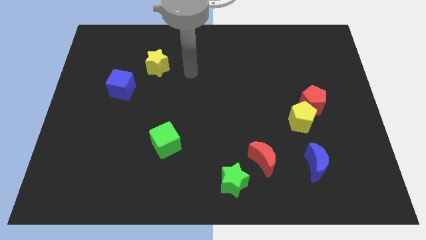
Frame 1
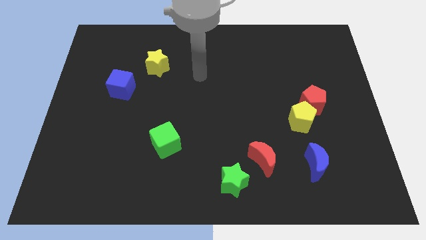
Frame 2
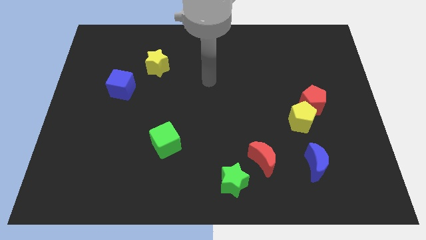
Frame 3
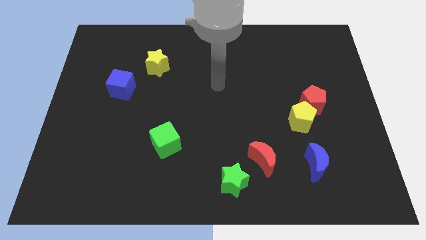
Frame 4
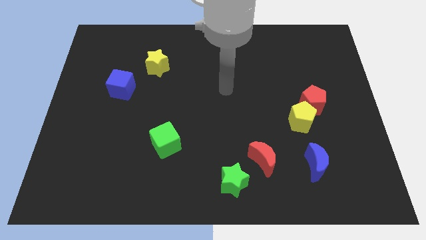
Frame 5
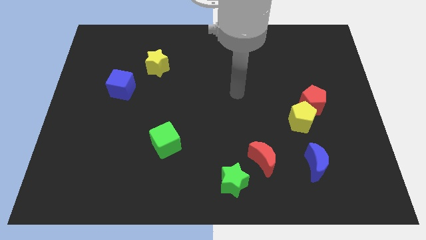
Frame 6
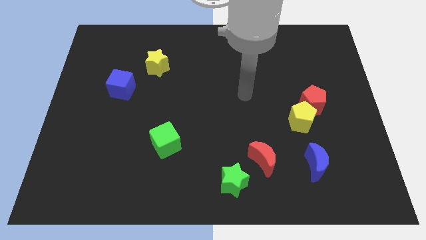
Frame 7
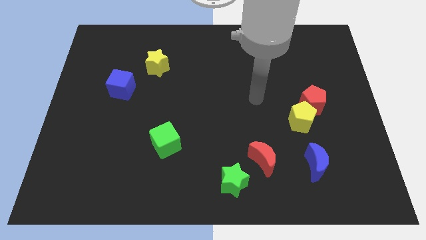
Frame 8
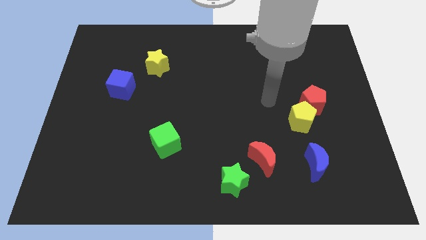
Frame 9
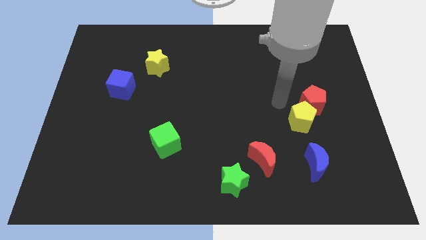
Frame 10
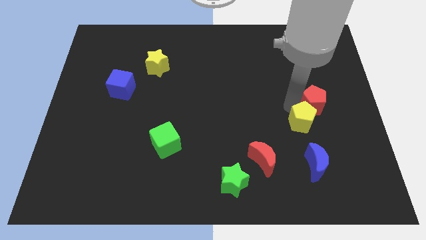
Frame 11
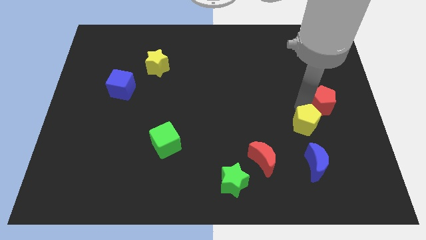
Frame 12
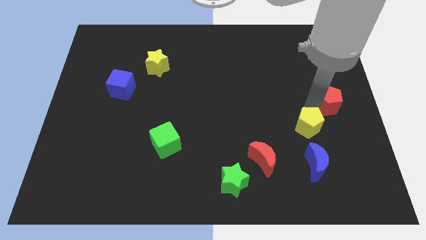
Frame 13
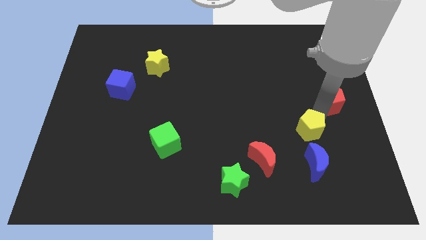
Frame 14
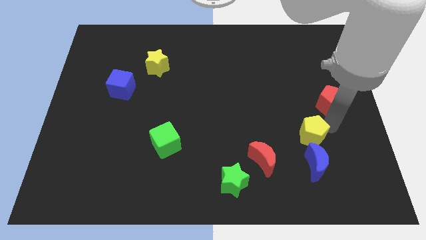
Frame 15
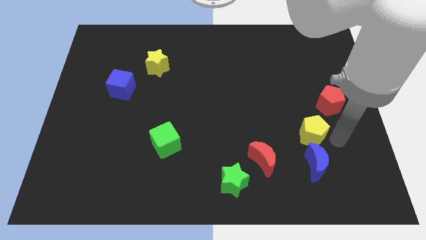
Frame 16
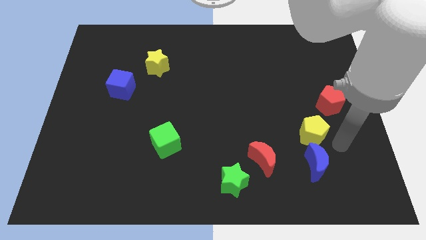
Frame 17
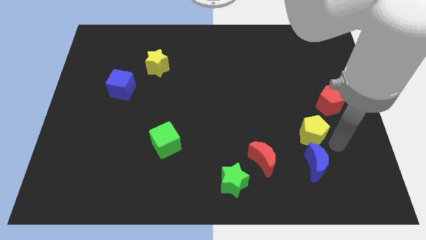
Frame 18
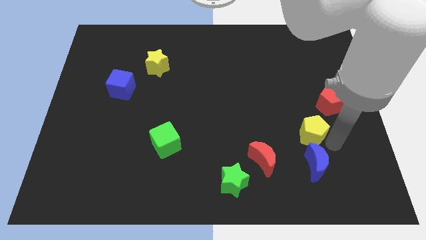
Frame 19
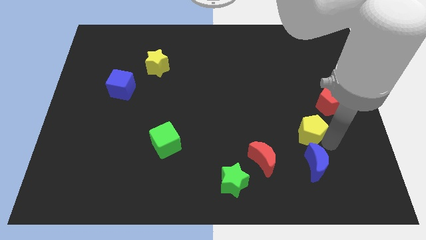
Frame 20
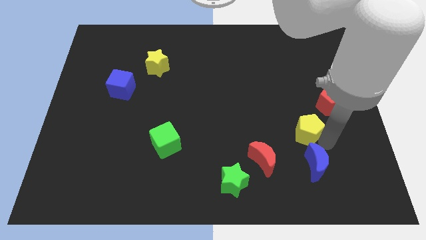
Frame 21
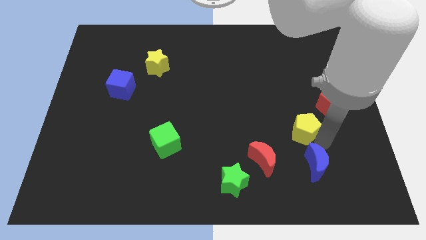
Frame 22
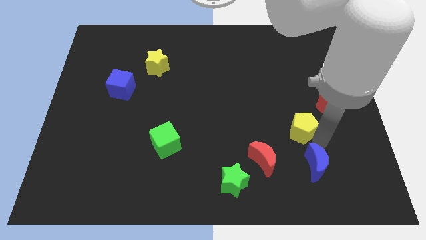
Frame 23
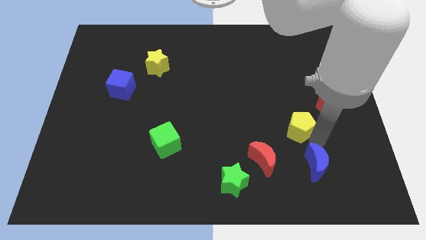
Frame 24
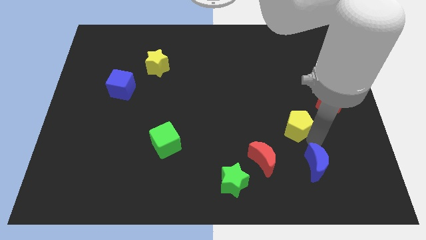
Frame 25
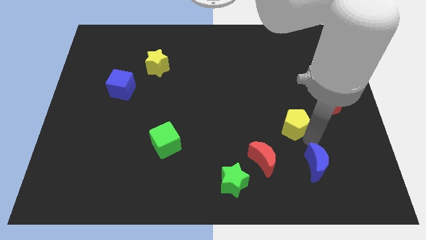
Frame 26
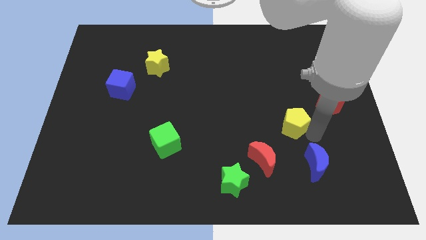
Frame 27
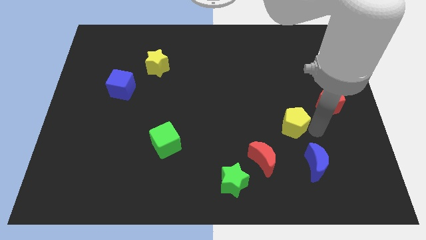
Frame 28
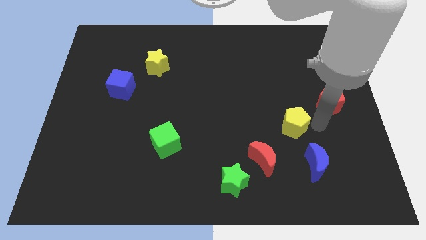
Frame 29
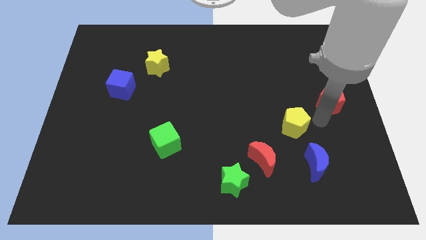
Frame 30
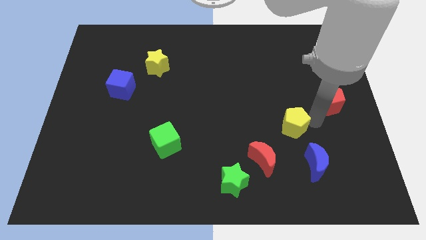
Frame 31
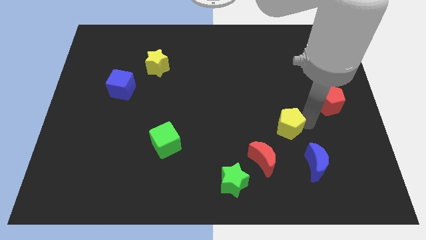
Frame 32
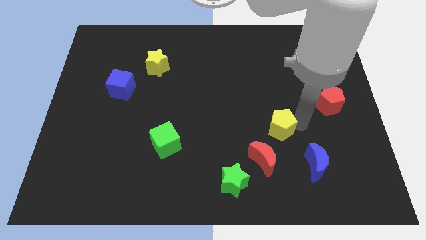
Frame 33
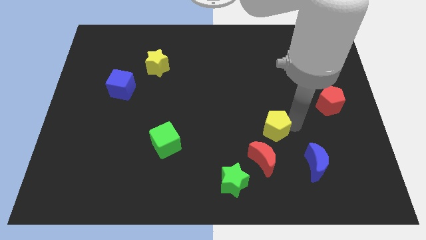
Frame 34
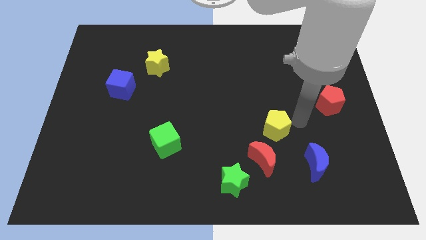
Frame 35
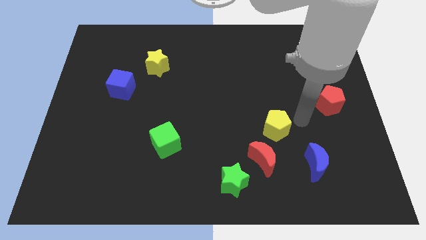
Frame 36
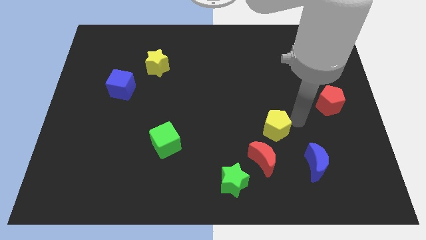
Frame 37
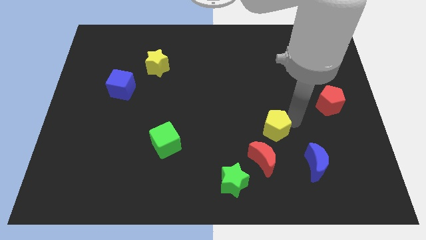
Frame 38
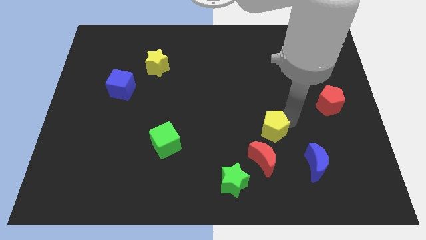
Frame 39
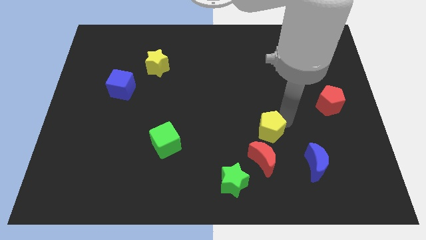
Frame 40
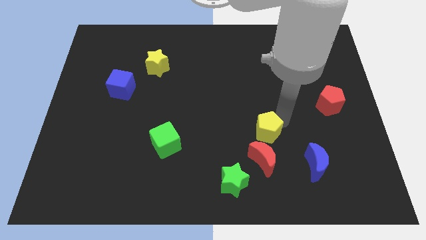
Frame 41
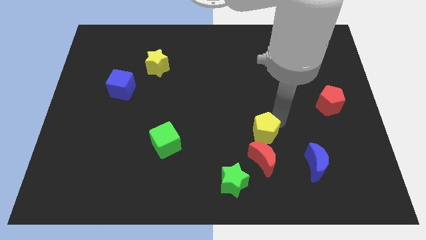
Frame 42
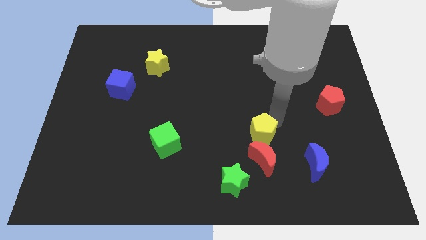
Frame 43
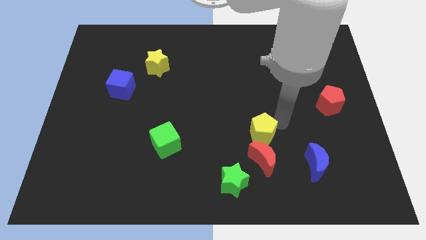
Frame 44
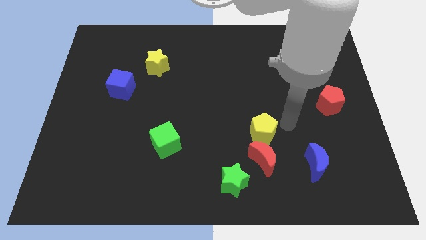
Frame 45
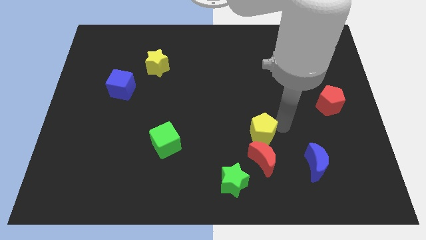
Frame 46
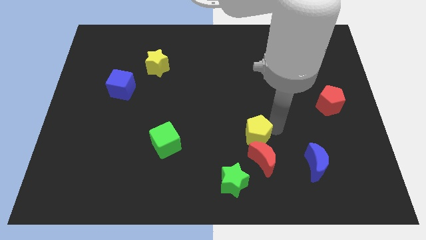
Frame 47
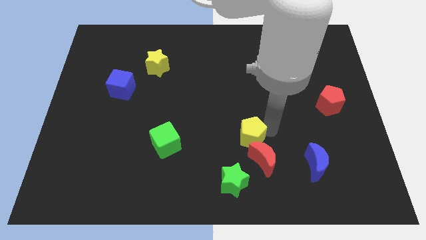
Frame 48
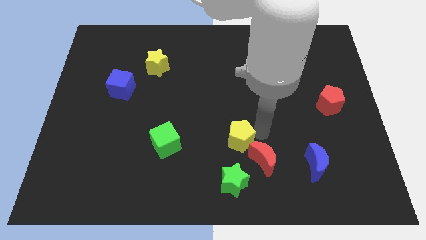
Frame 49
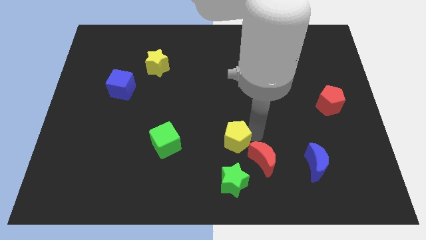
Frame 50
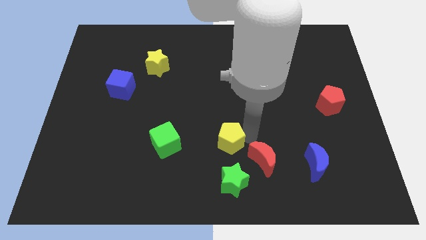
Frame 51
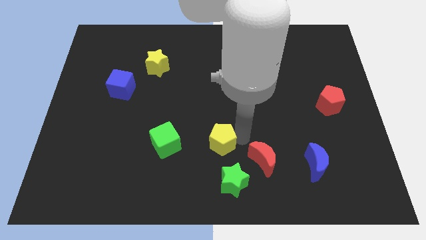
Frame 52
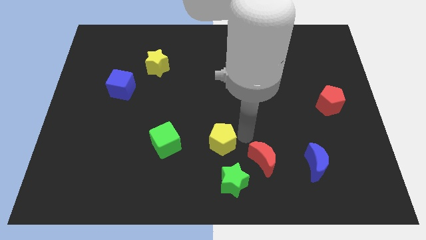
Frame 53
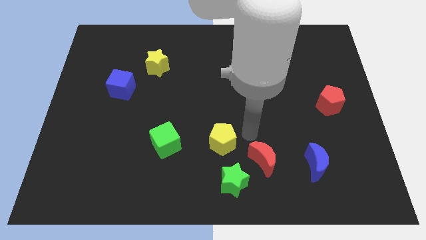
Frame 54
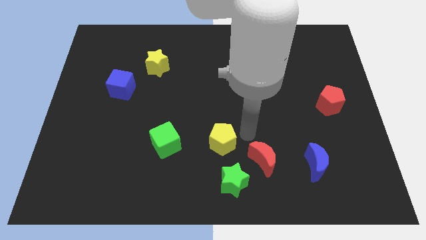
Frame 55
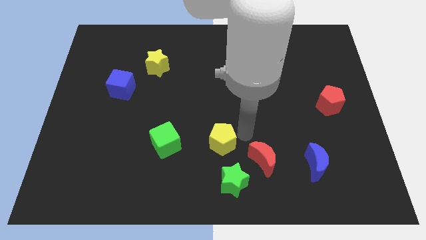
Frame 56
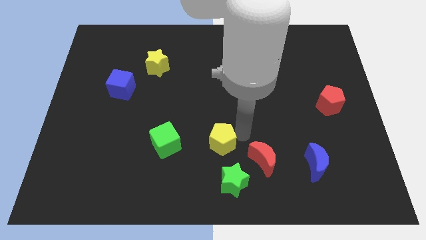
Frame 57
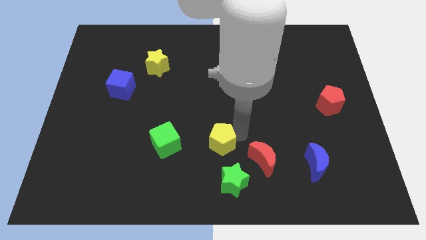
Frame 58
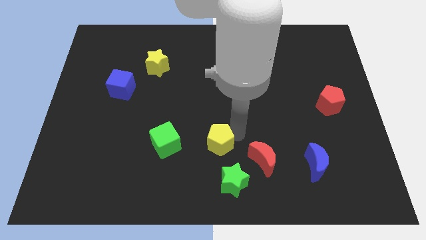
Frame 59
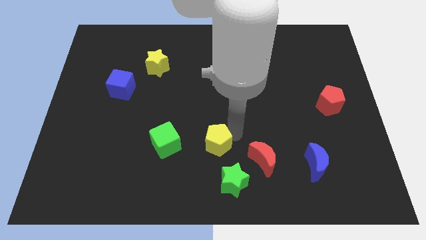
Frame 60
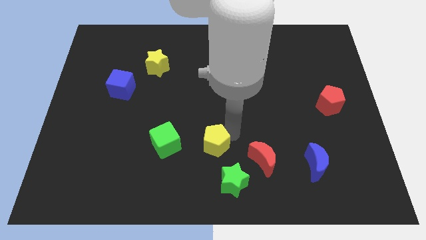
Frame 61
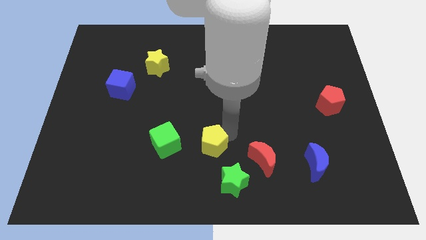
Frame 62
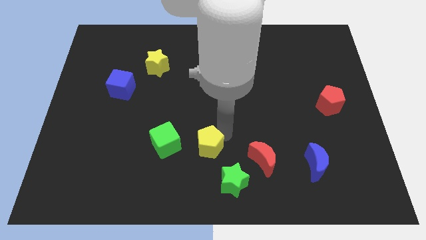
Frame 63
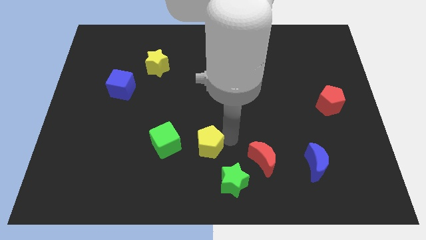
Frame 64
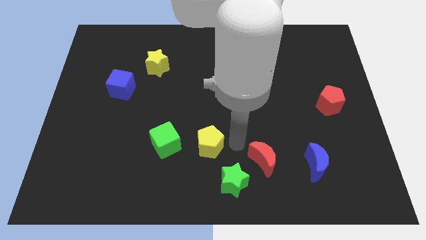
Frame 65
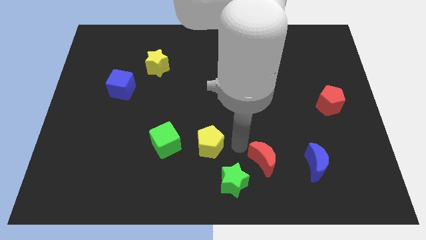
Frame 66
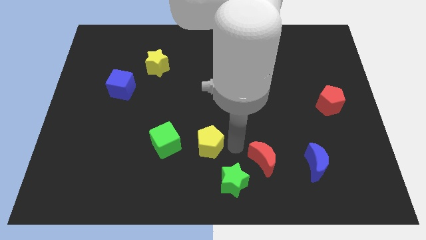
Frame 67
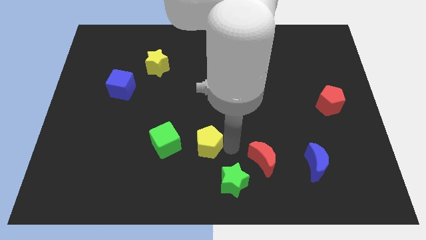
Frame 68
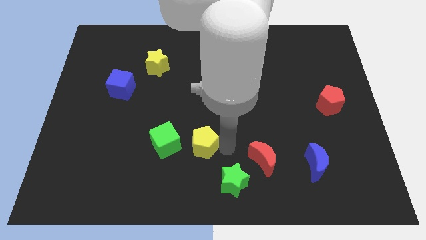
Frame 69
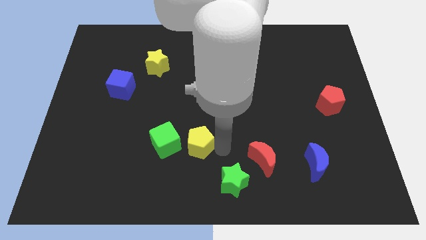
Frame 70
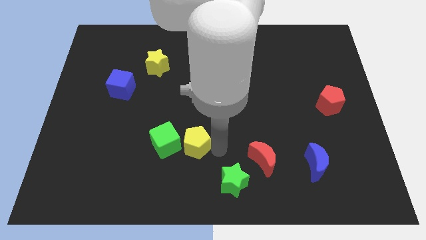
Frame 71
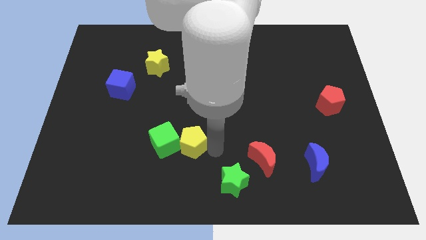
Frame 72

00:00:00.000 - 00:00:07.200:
move the yellow pentagon towards the green cube

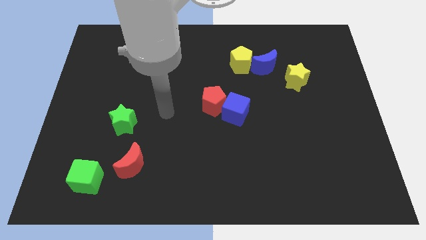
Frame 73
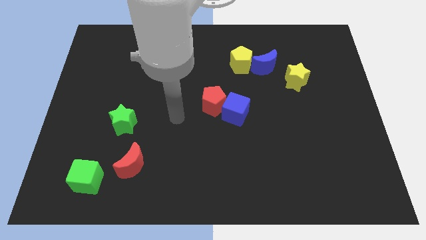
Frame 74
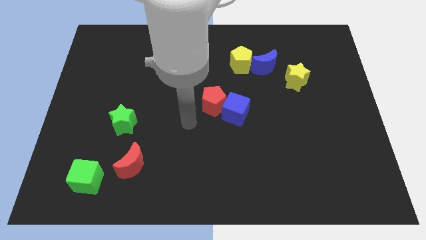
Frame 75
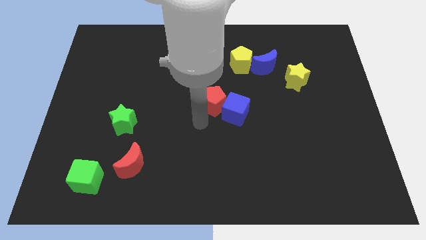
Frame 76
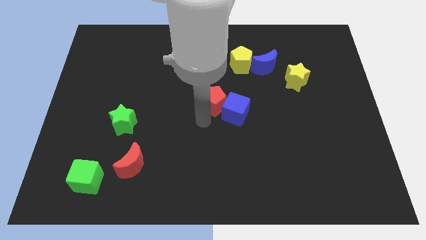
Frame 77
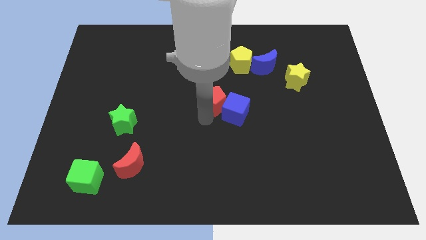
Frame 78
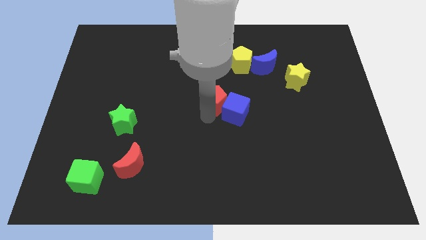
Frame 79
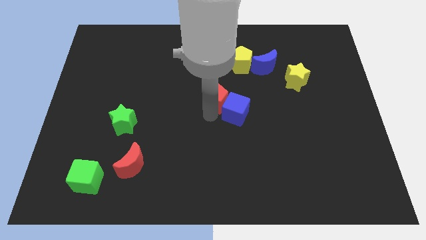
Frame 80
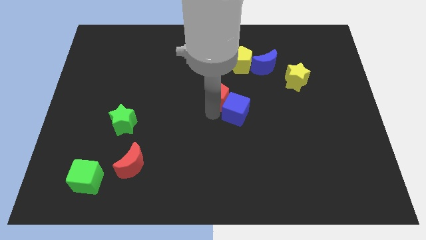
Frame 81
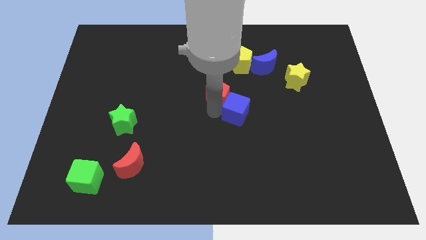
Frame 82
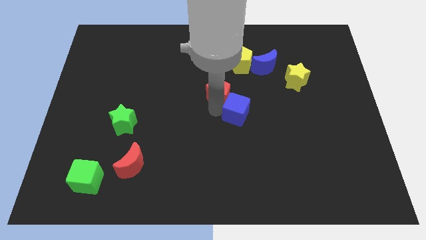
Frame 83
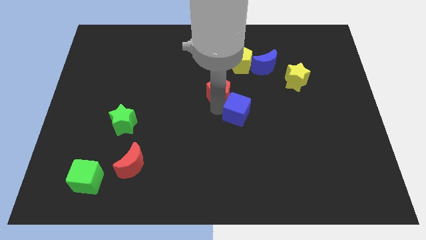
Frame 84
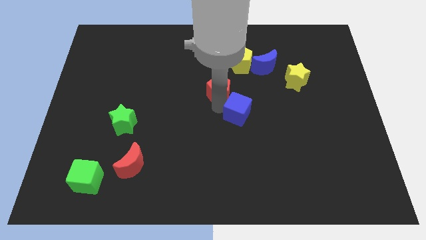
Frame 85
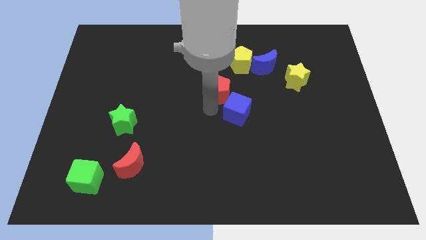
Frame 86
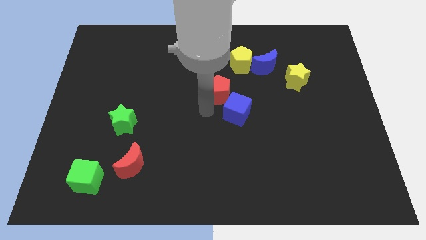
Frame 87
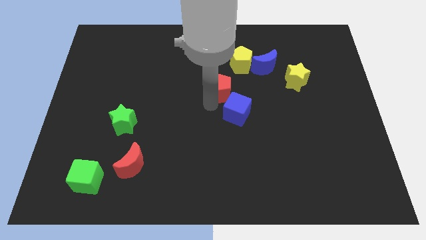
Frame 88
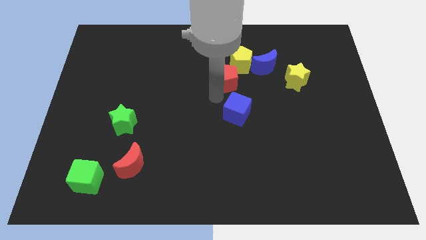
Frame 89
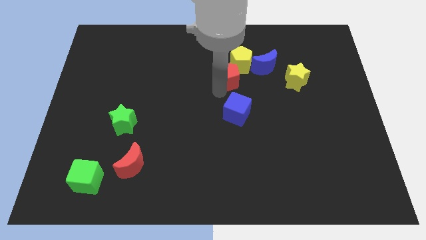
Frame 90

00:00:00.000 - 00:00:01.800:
push the red pentagon to the yellow pentagon
